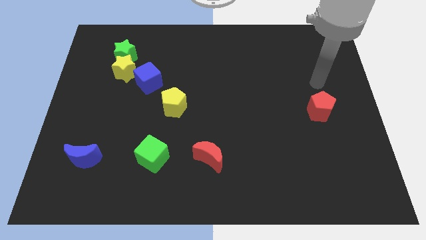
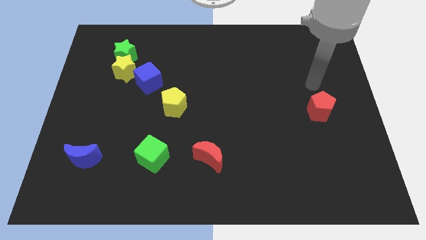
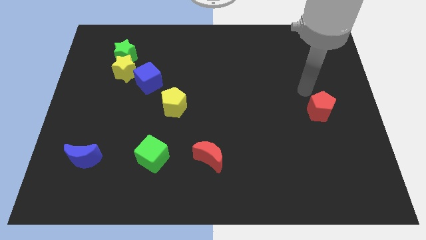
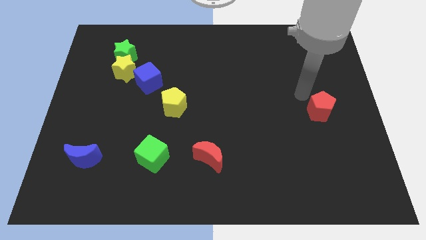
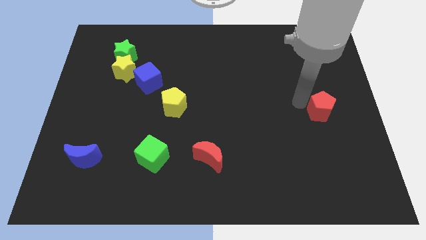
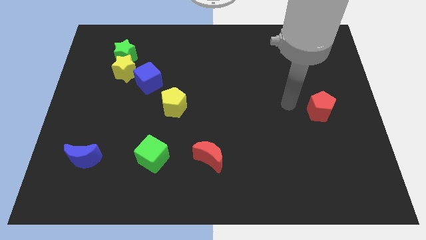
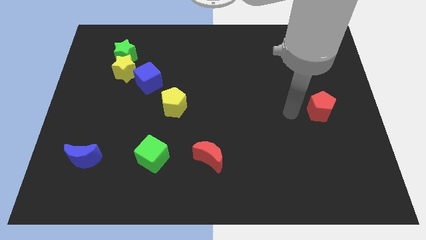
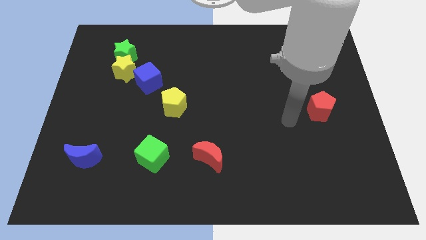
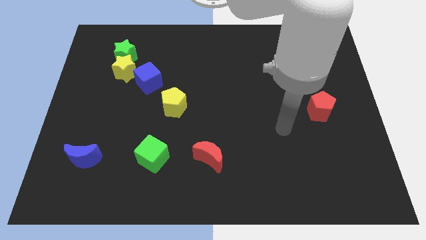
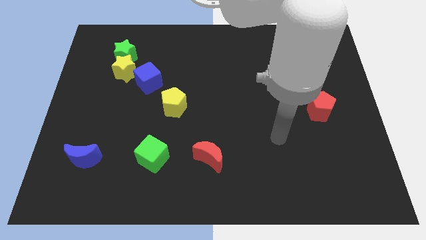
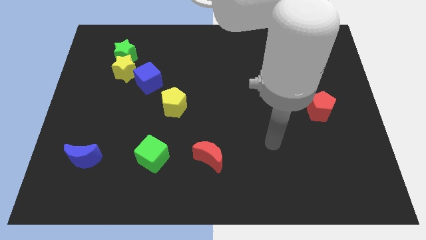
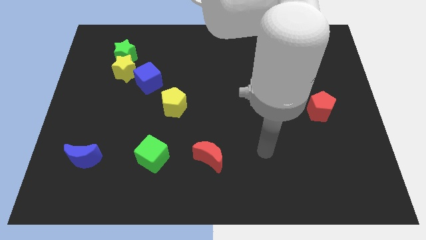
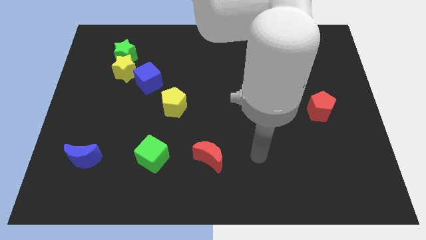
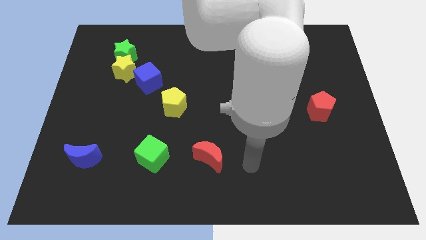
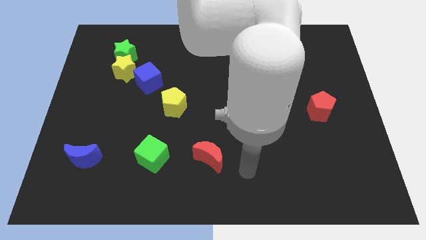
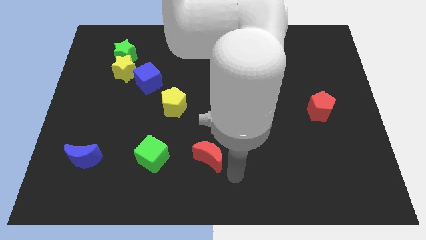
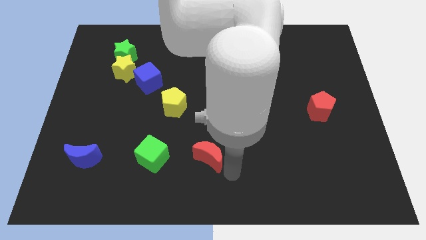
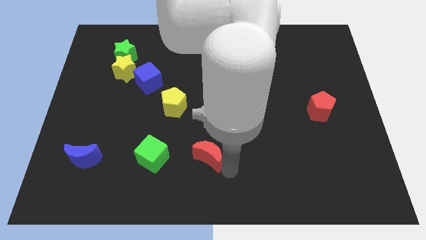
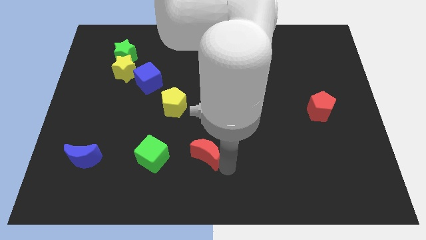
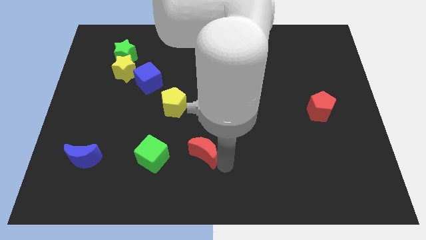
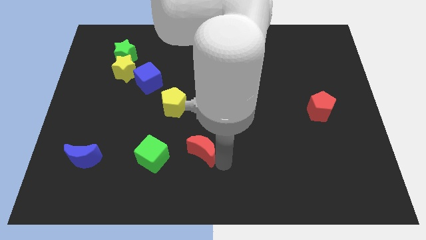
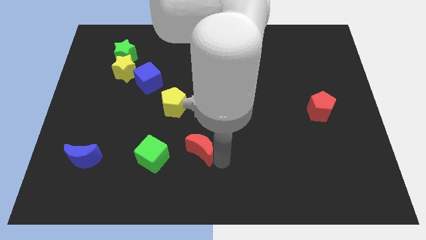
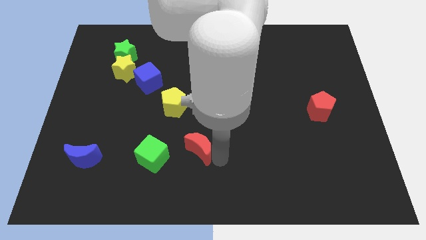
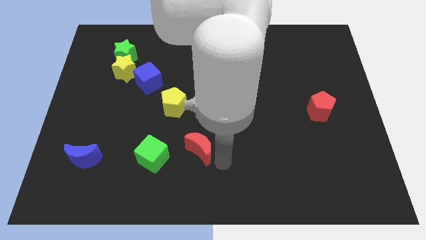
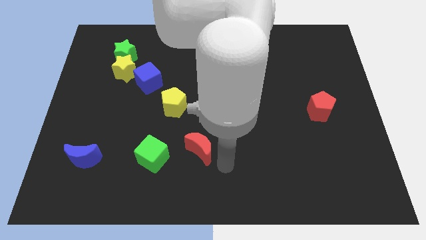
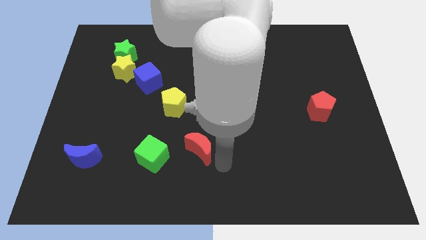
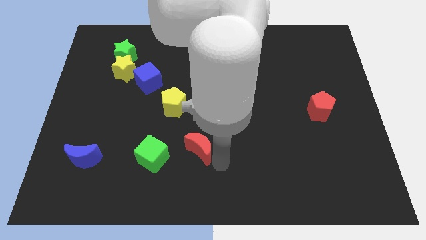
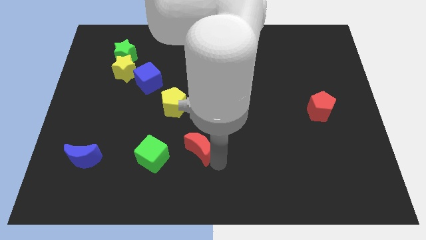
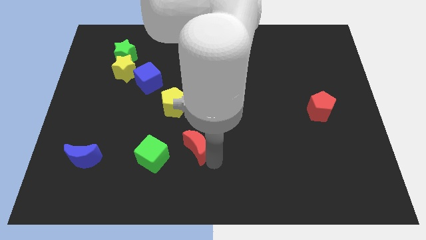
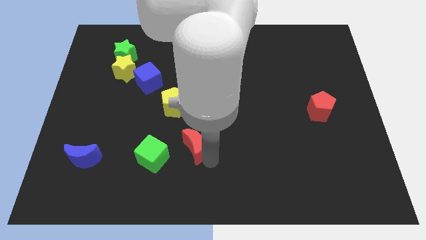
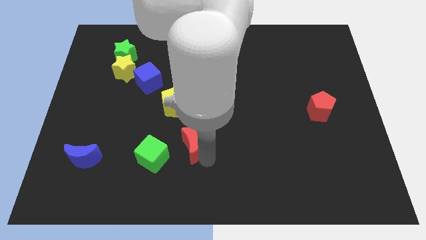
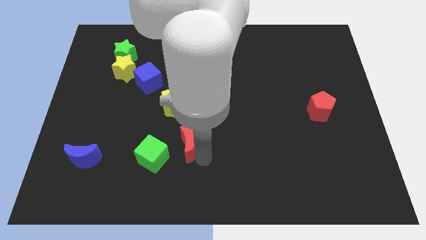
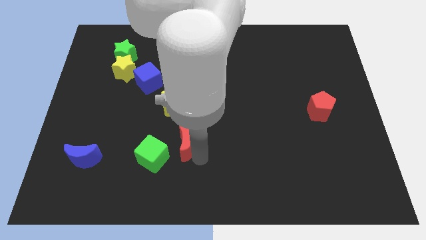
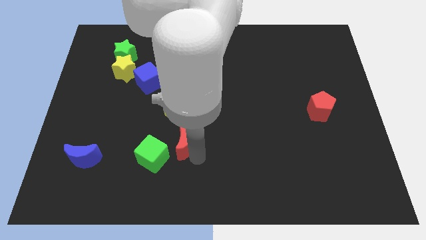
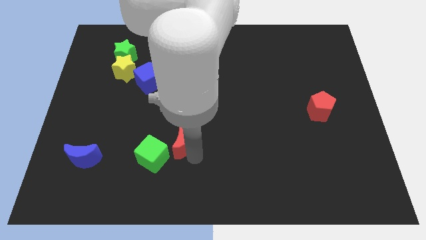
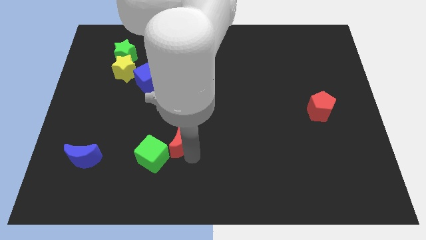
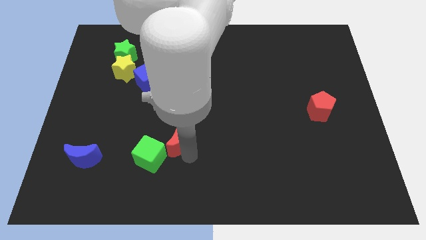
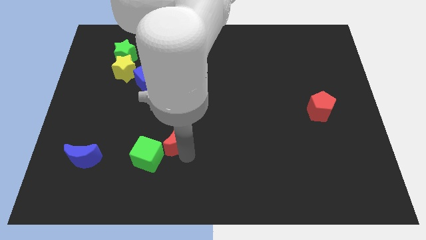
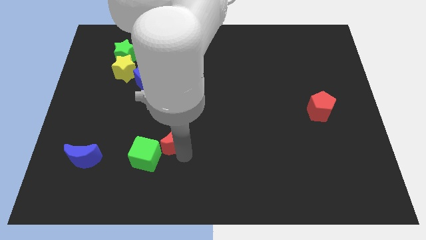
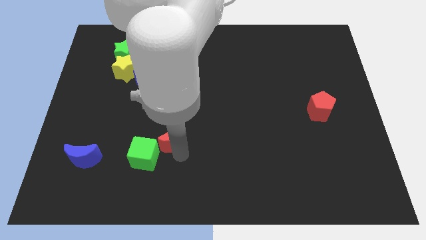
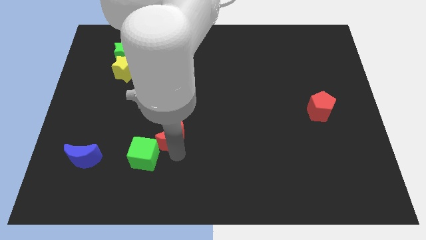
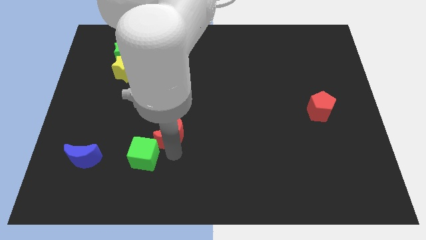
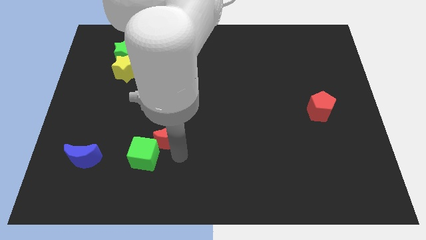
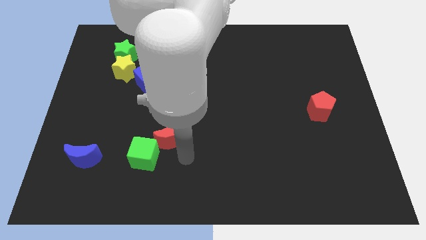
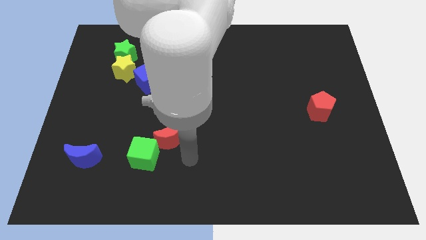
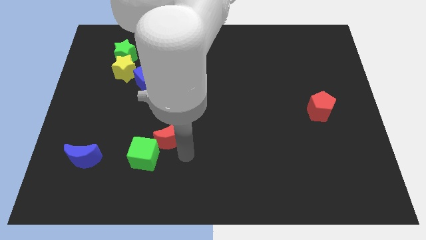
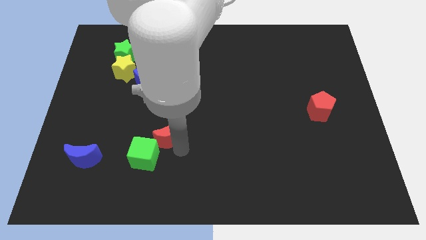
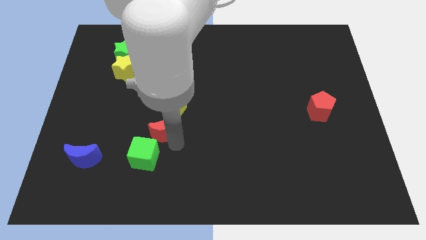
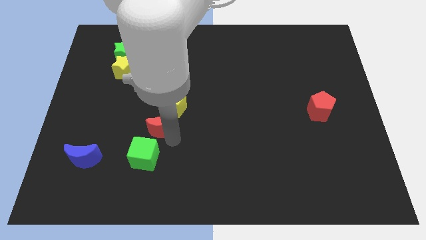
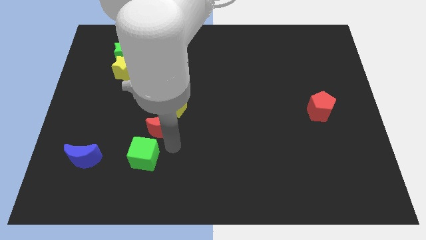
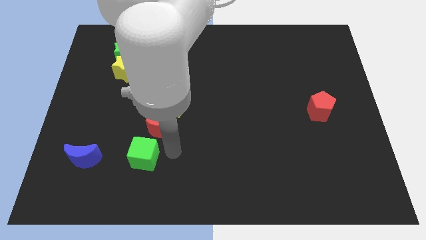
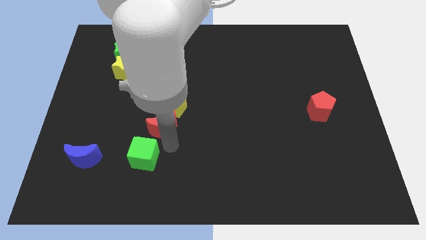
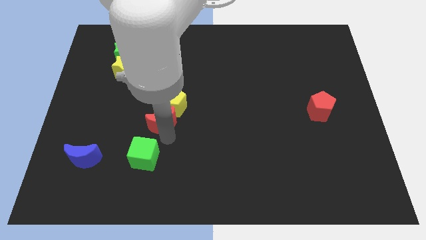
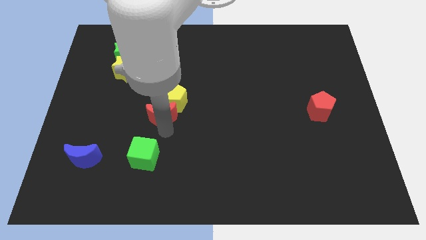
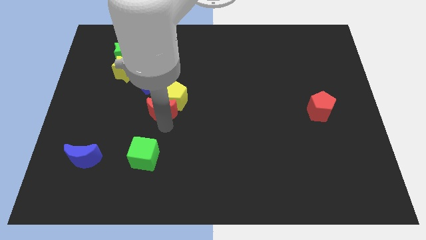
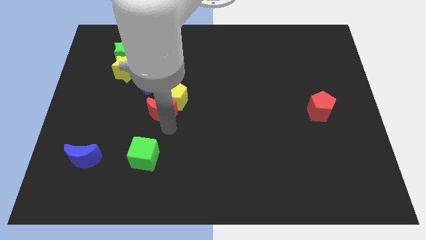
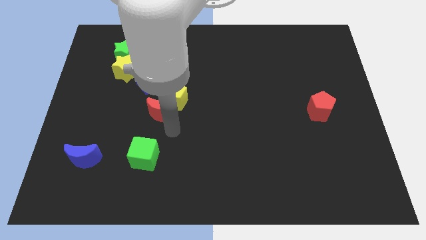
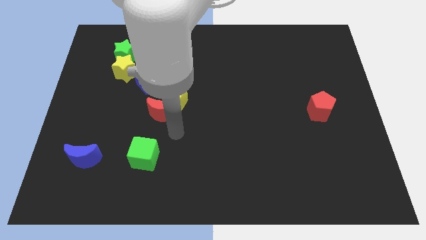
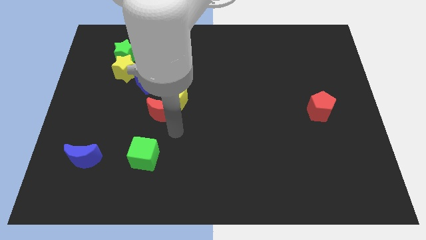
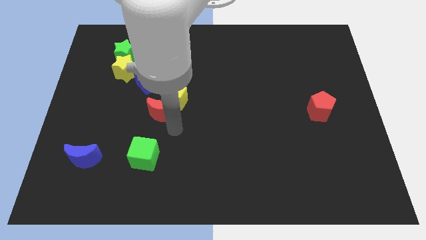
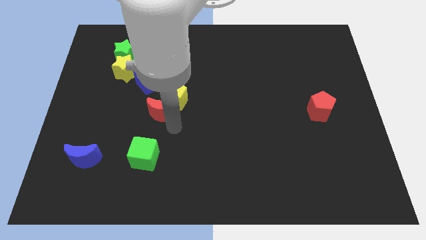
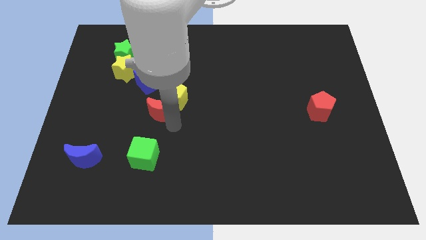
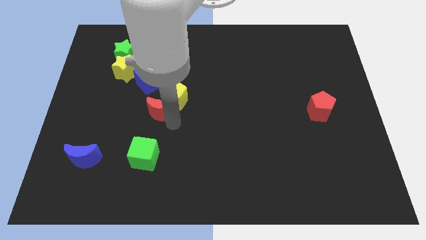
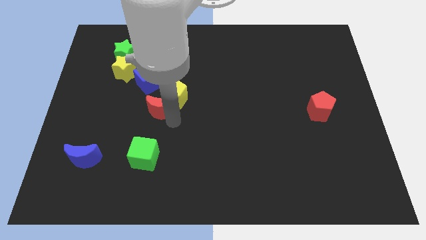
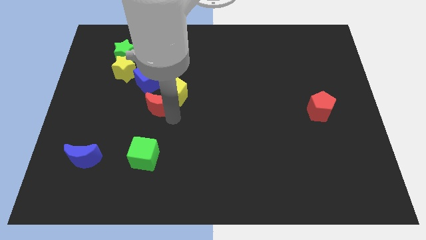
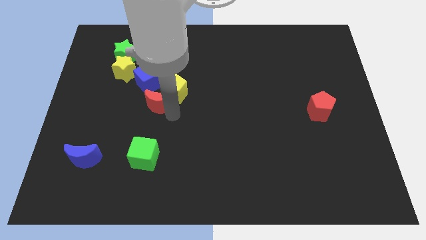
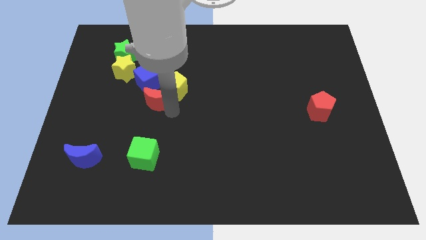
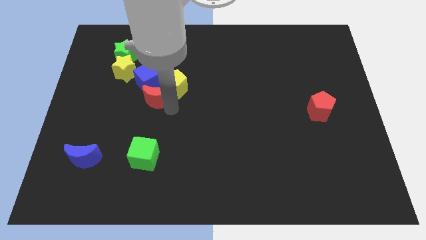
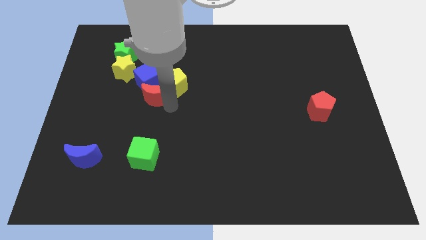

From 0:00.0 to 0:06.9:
push the red moon next to the blue cube
